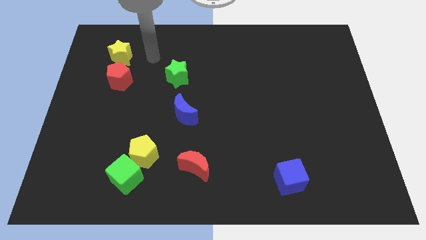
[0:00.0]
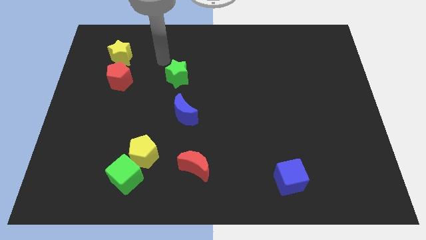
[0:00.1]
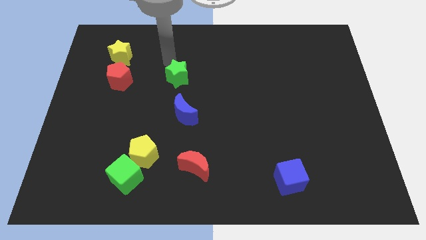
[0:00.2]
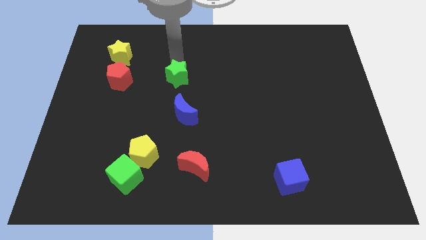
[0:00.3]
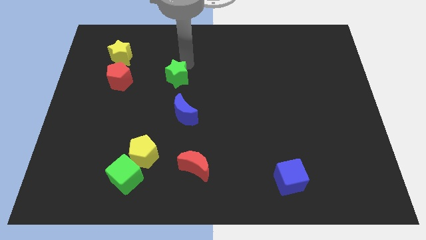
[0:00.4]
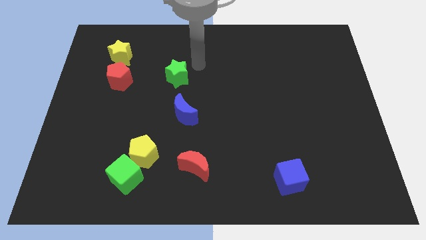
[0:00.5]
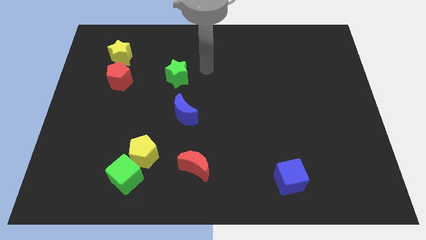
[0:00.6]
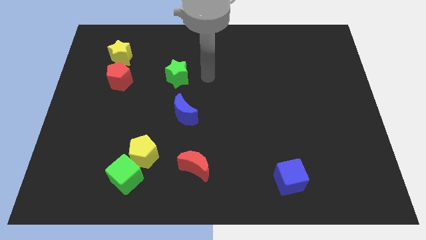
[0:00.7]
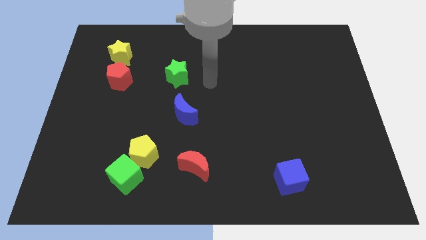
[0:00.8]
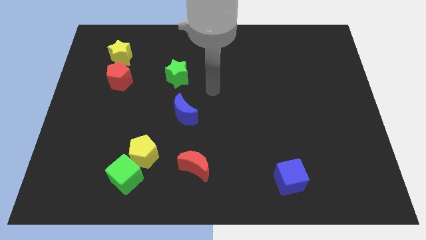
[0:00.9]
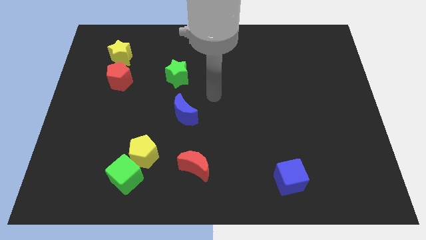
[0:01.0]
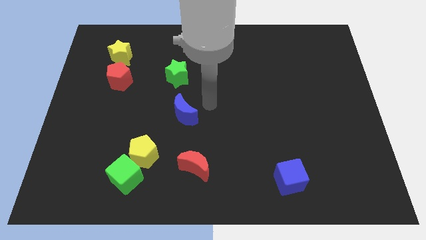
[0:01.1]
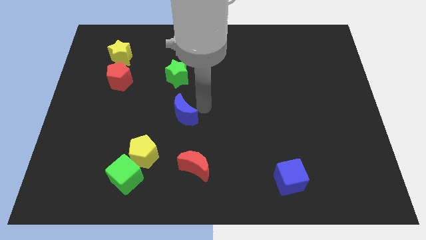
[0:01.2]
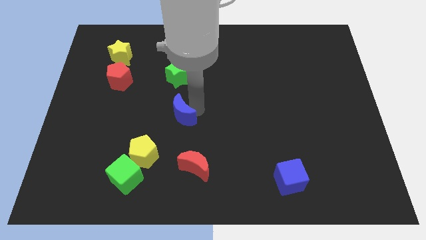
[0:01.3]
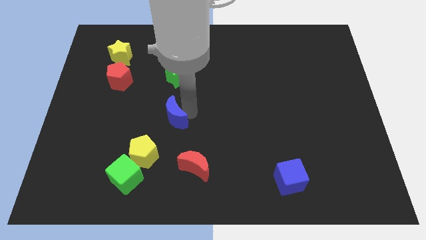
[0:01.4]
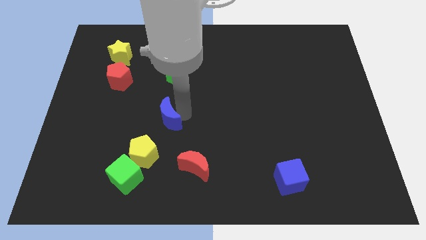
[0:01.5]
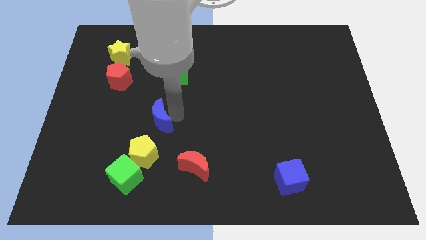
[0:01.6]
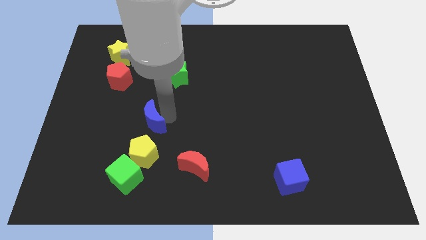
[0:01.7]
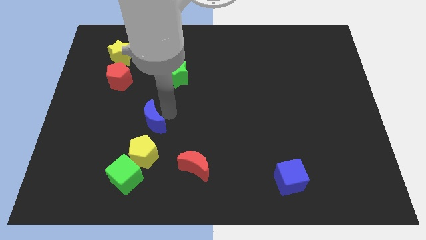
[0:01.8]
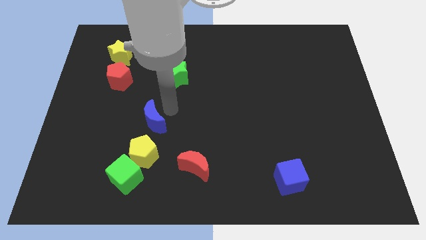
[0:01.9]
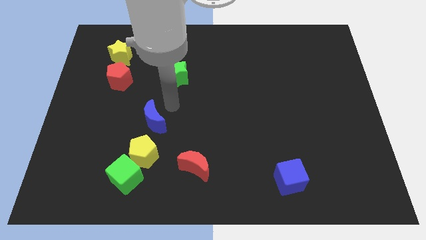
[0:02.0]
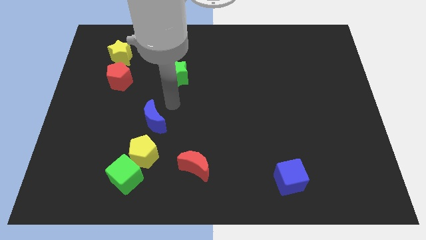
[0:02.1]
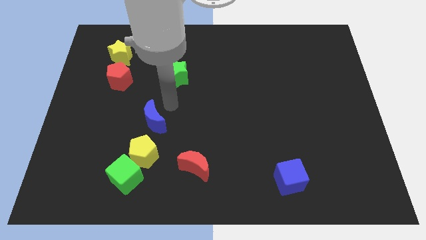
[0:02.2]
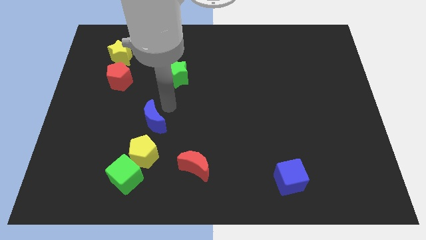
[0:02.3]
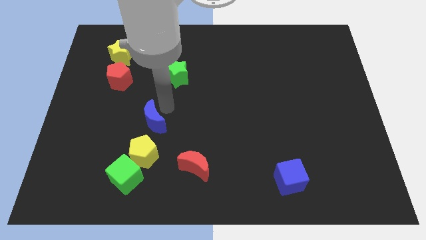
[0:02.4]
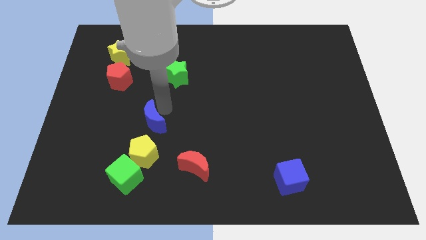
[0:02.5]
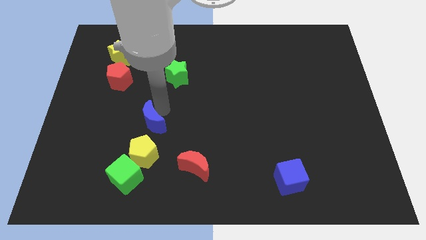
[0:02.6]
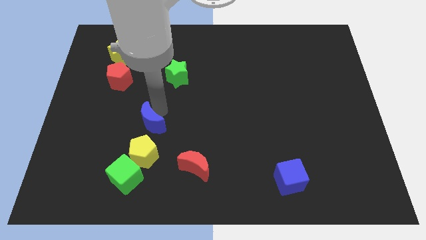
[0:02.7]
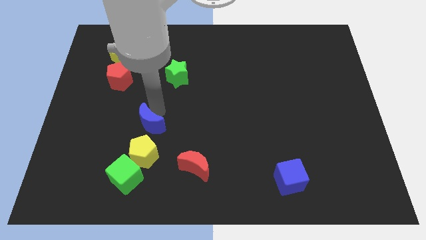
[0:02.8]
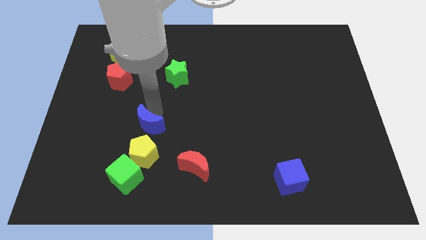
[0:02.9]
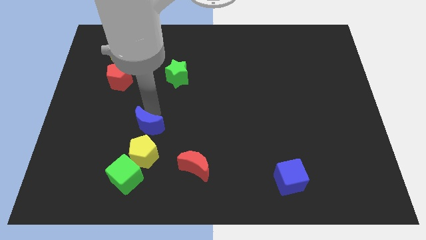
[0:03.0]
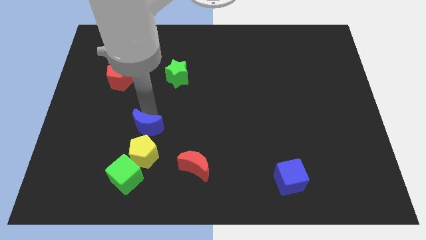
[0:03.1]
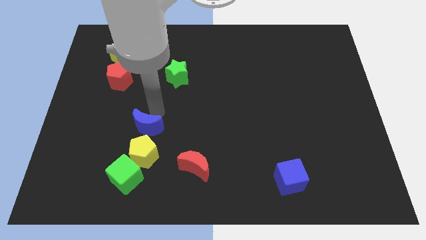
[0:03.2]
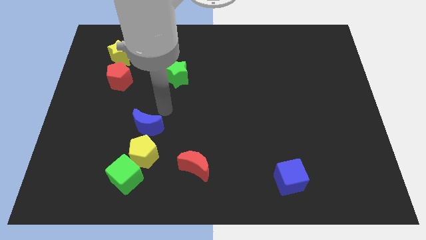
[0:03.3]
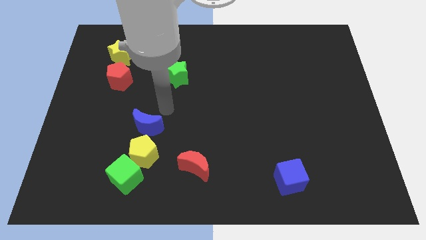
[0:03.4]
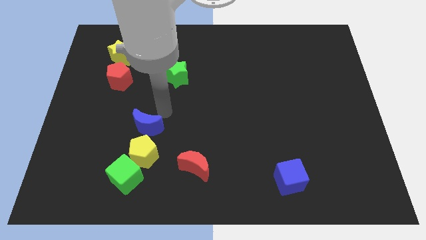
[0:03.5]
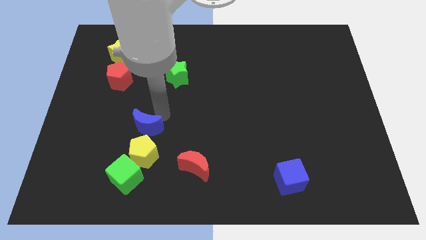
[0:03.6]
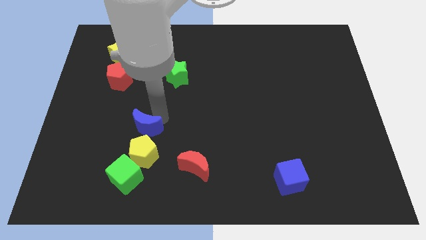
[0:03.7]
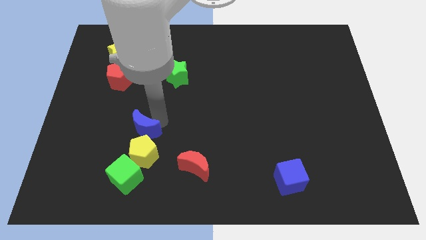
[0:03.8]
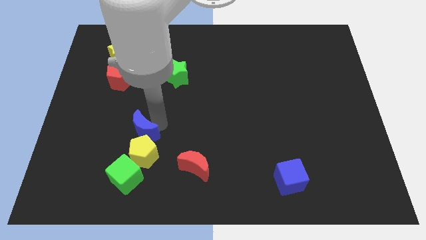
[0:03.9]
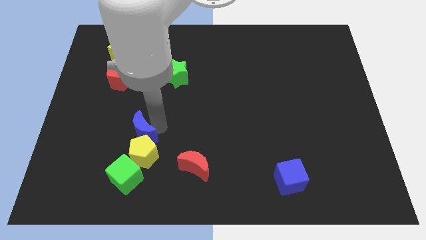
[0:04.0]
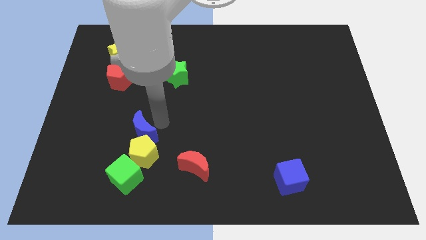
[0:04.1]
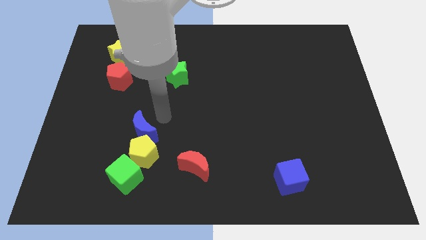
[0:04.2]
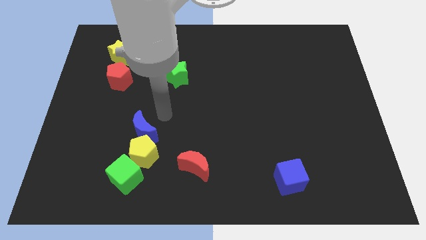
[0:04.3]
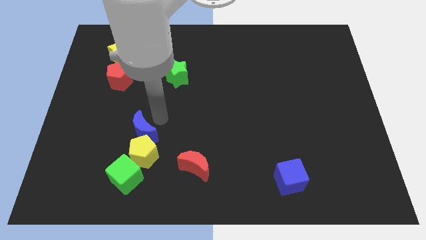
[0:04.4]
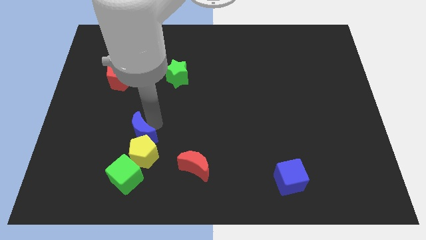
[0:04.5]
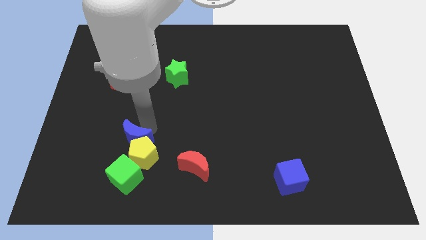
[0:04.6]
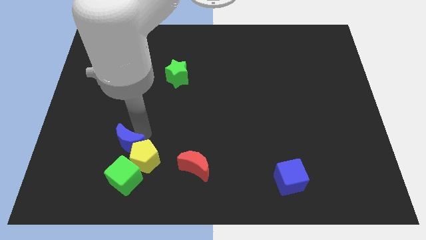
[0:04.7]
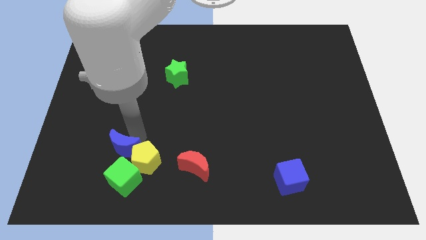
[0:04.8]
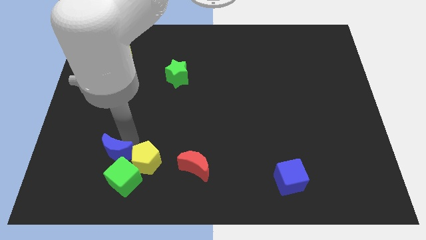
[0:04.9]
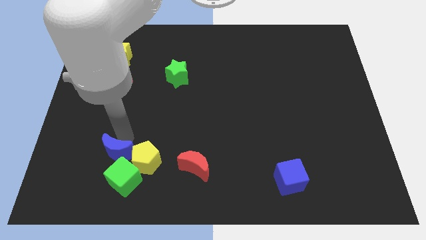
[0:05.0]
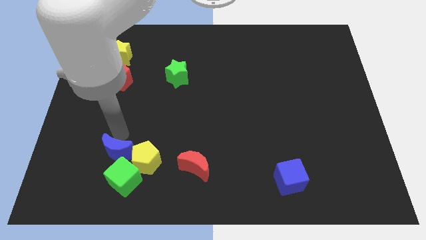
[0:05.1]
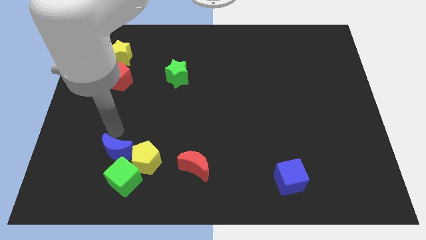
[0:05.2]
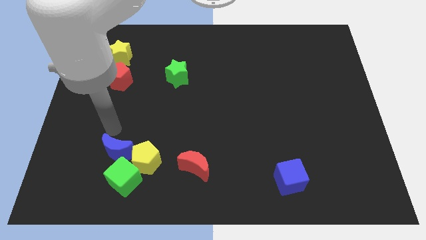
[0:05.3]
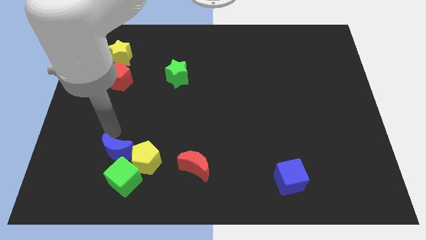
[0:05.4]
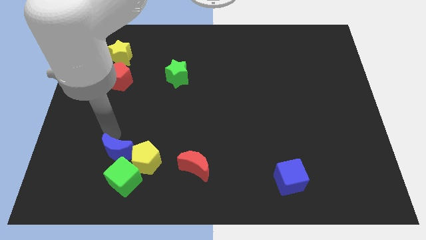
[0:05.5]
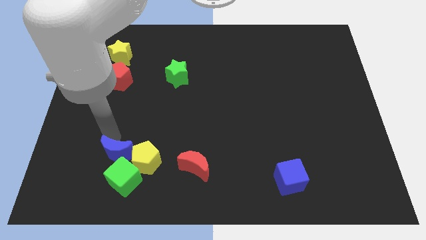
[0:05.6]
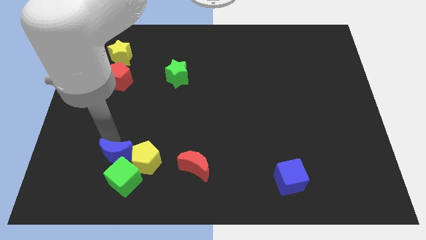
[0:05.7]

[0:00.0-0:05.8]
move the blue moon close to the green cube

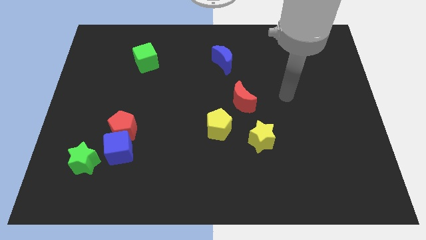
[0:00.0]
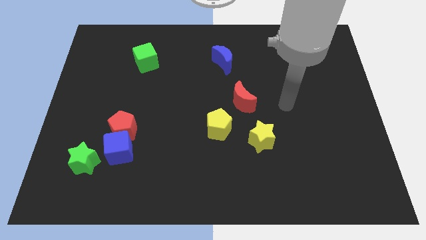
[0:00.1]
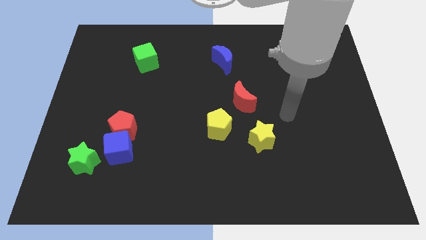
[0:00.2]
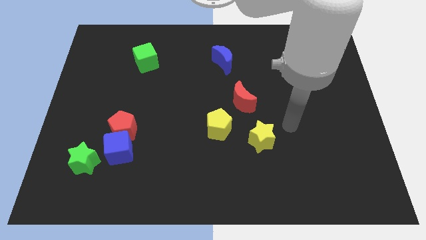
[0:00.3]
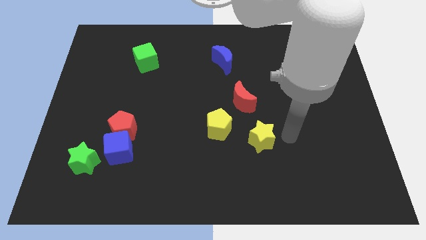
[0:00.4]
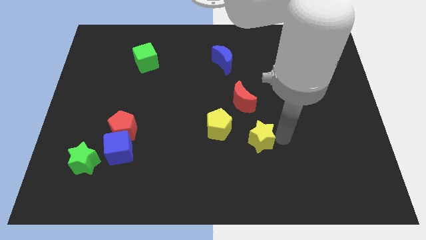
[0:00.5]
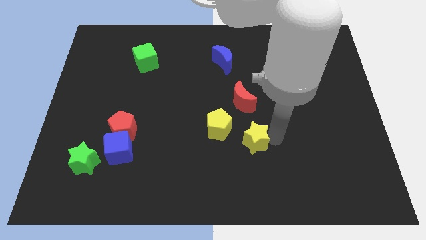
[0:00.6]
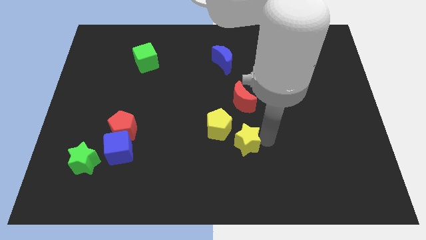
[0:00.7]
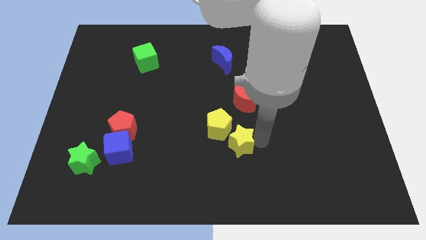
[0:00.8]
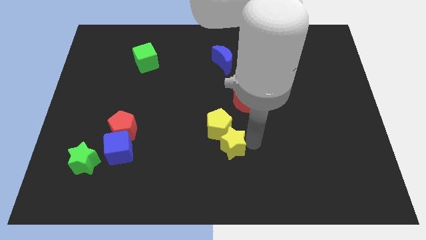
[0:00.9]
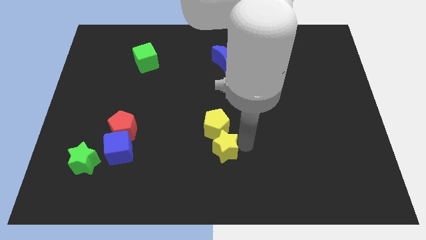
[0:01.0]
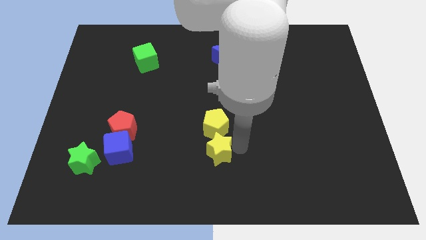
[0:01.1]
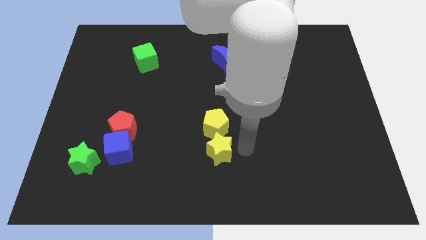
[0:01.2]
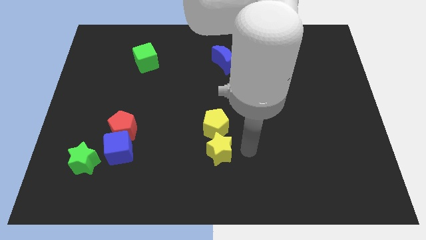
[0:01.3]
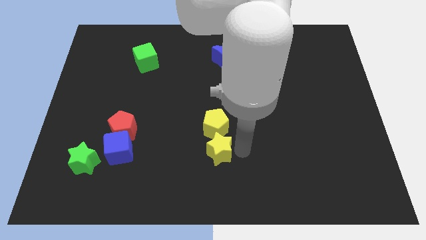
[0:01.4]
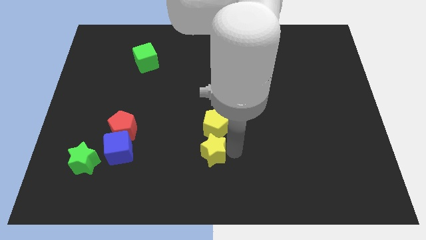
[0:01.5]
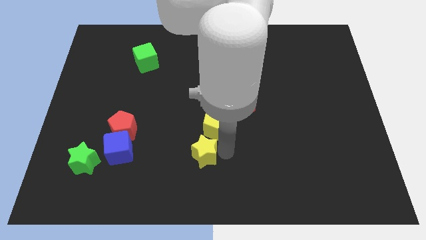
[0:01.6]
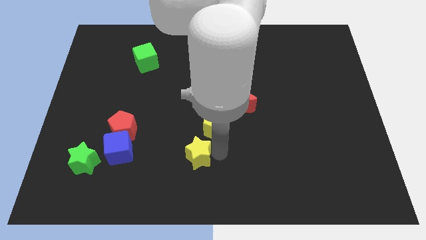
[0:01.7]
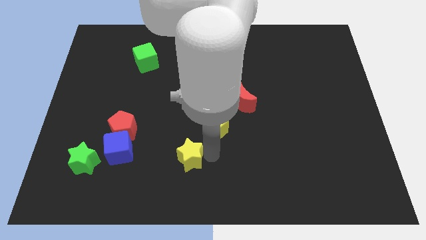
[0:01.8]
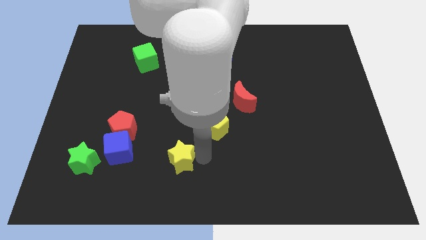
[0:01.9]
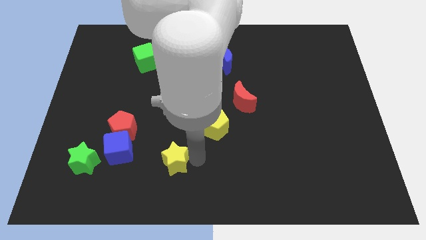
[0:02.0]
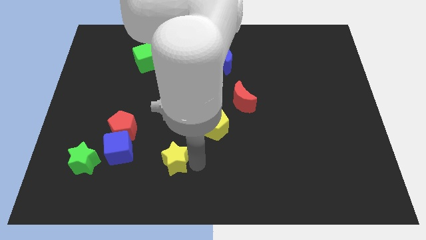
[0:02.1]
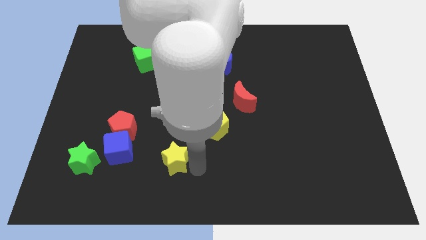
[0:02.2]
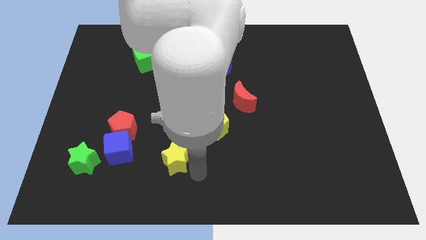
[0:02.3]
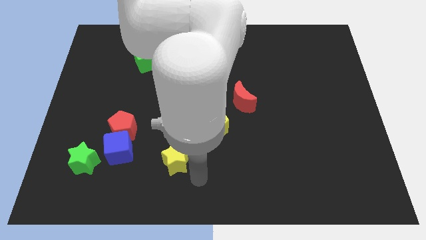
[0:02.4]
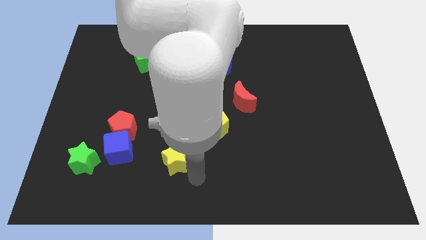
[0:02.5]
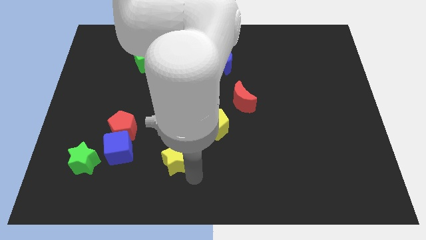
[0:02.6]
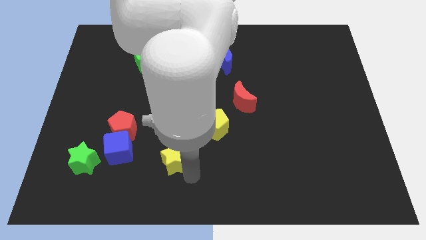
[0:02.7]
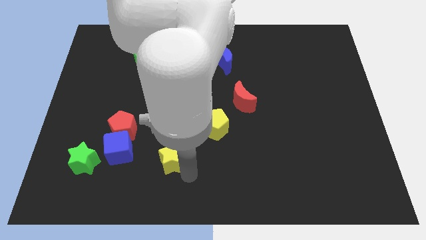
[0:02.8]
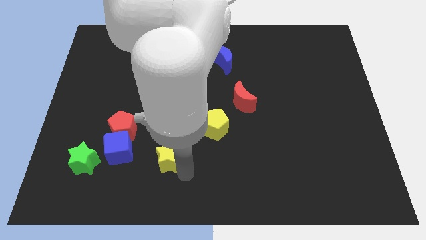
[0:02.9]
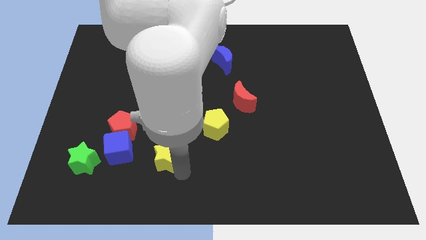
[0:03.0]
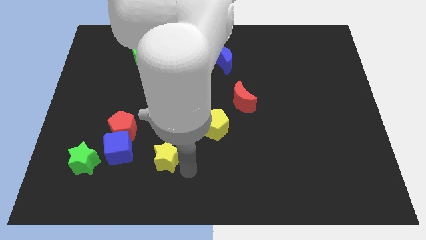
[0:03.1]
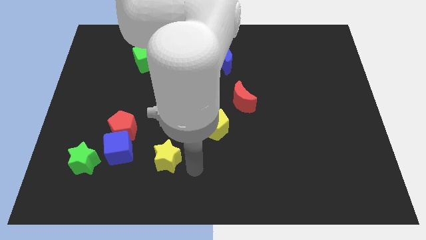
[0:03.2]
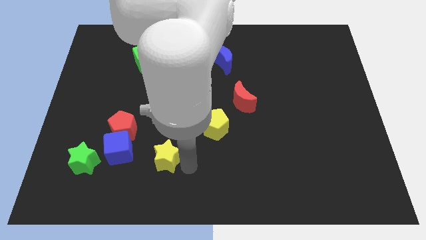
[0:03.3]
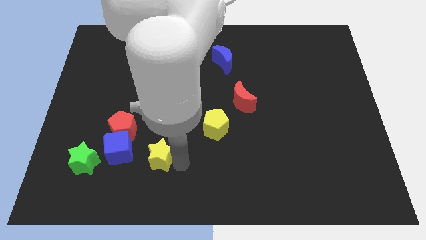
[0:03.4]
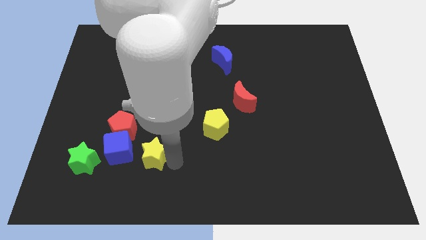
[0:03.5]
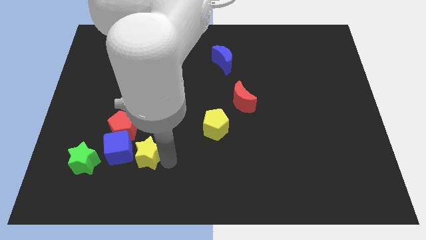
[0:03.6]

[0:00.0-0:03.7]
push the yellow star to the blue cube
